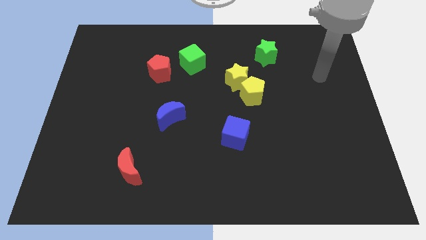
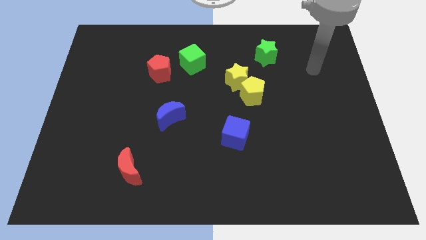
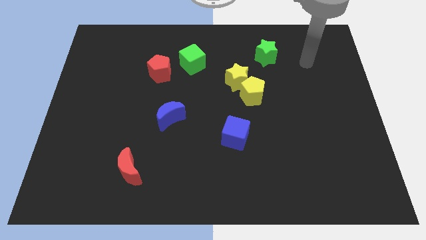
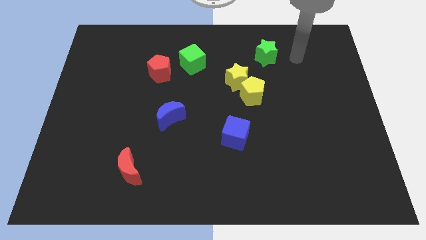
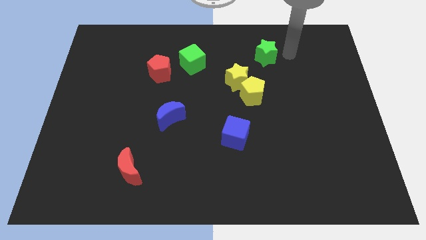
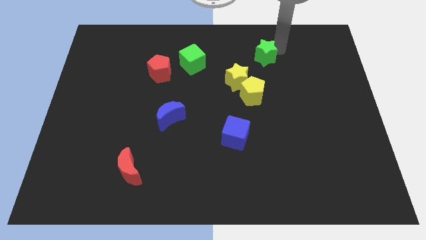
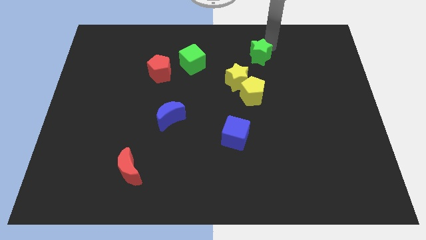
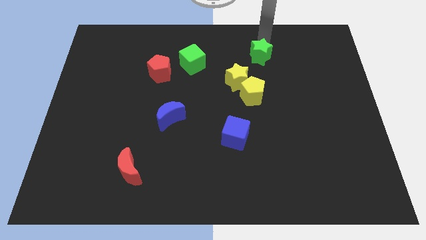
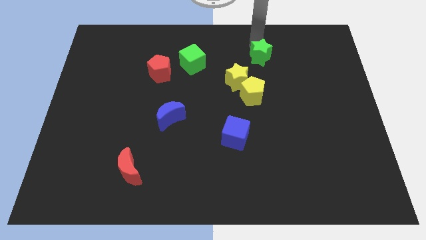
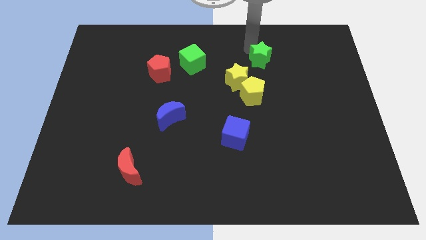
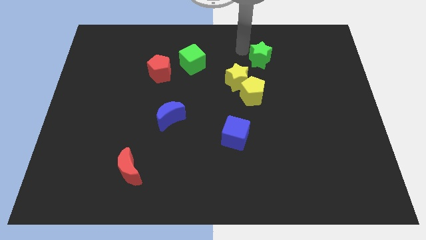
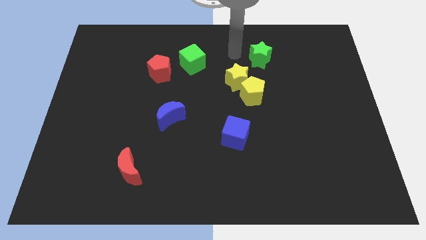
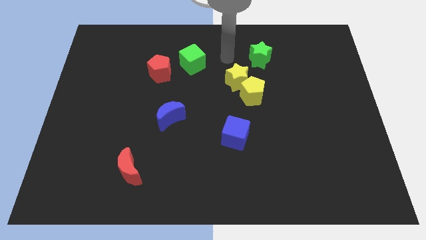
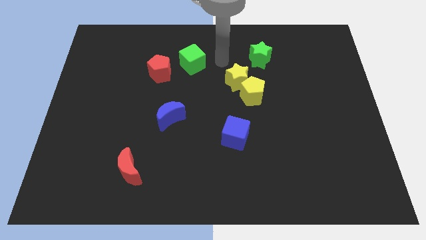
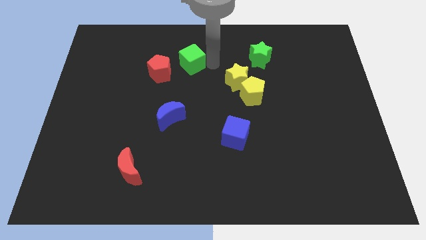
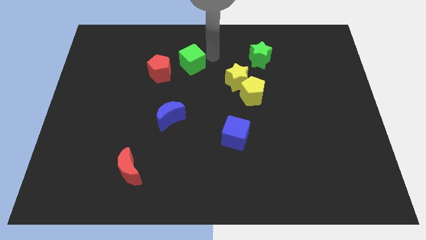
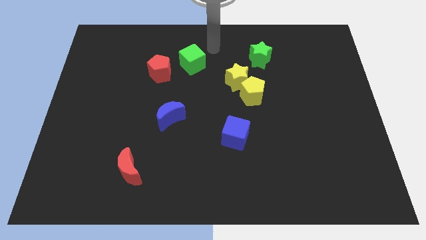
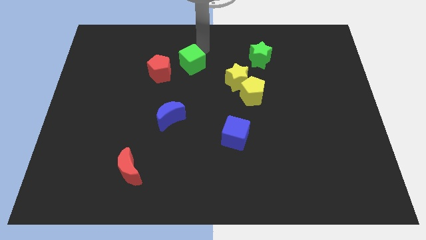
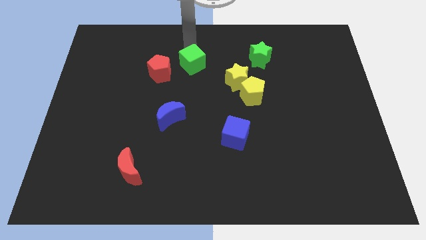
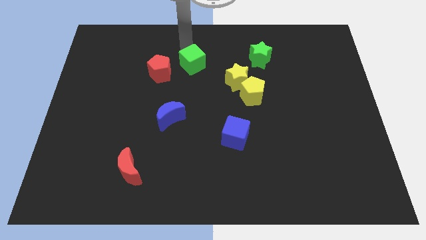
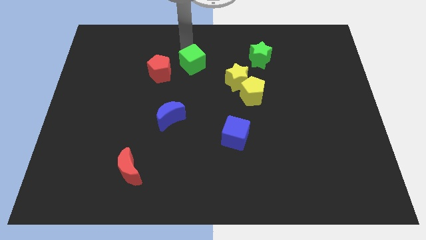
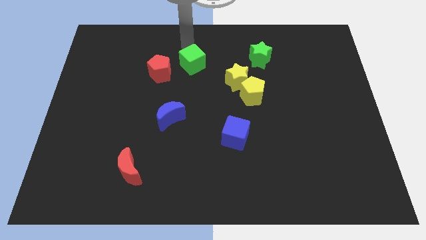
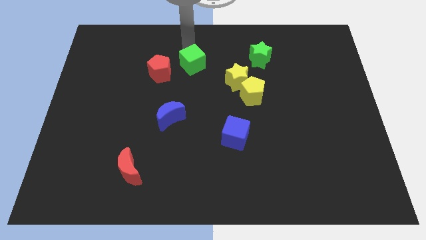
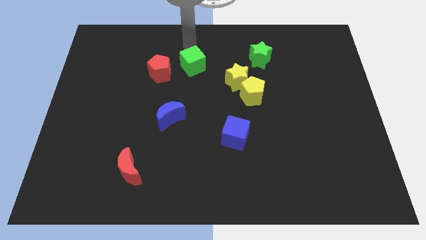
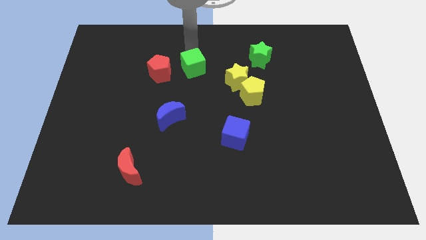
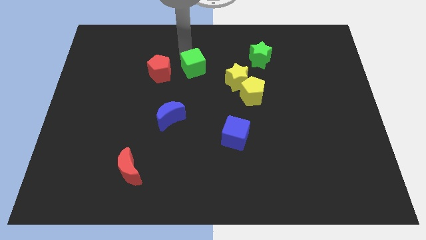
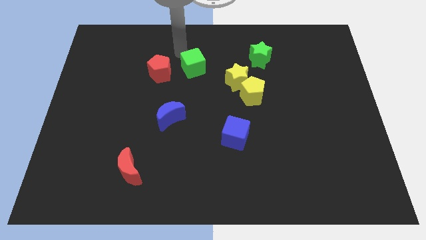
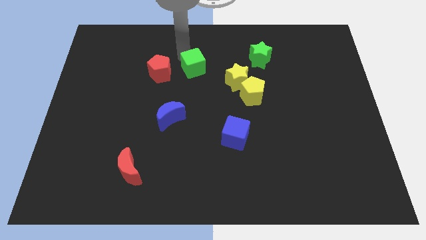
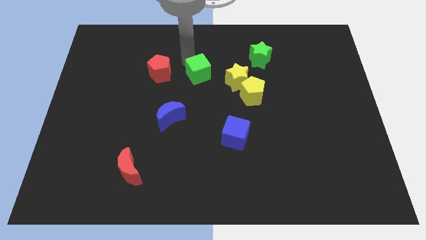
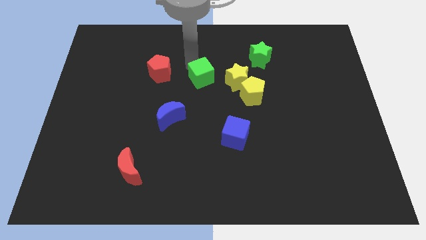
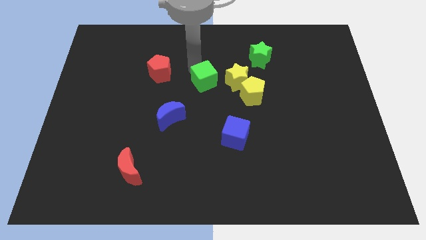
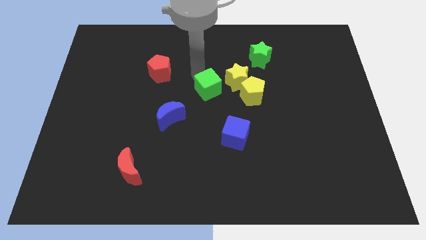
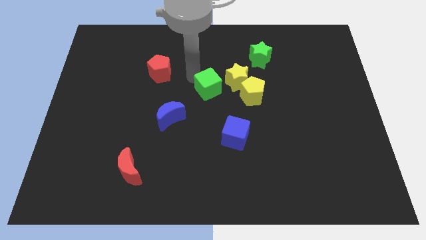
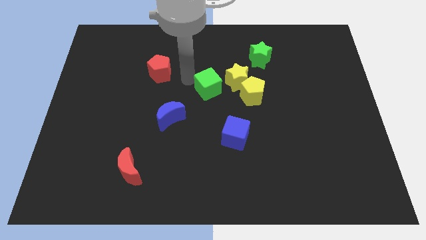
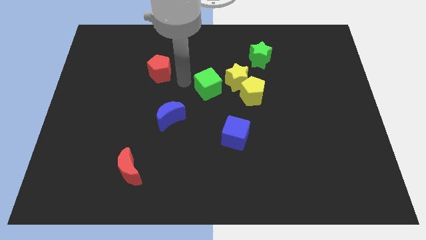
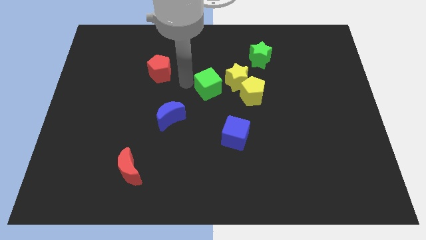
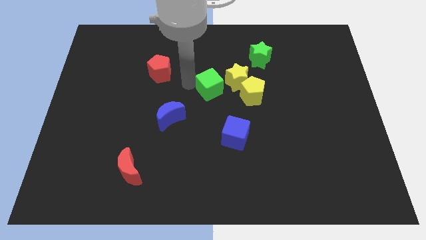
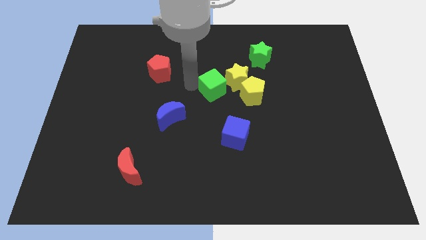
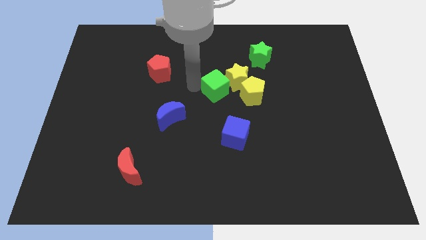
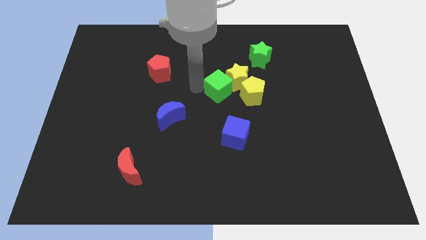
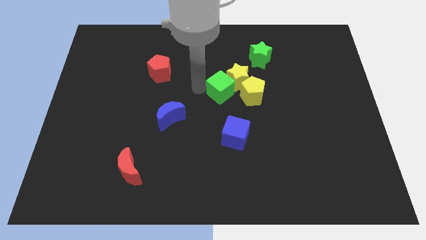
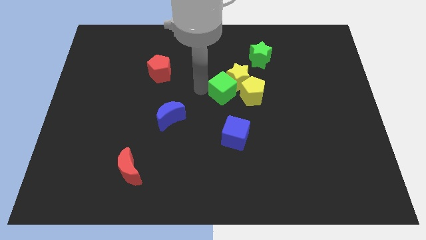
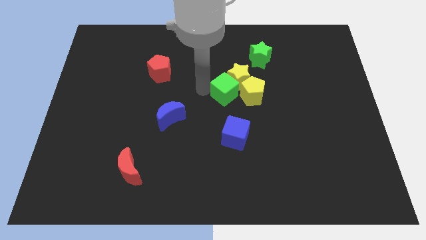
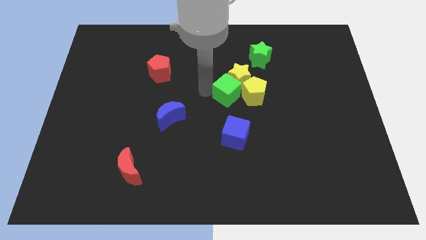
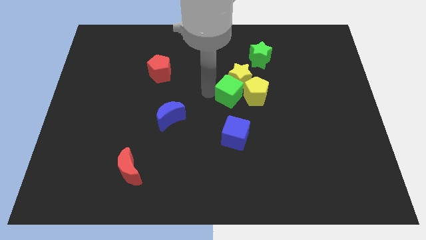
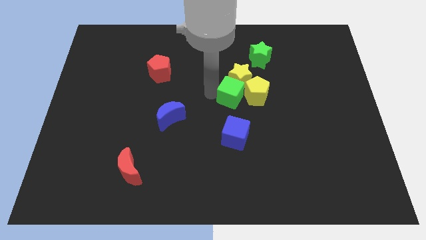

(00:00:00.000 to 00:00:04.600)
move the green cube close to the yellow pentagon

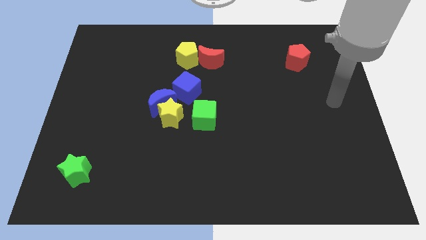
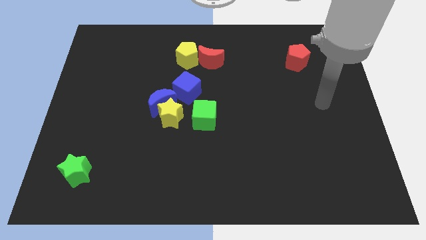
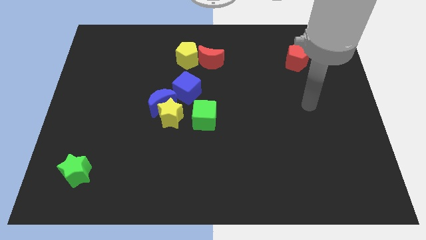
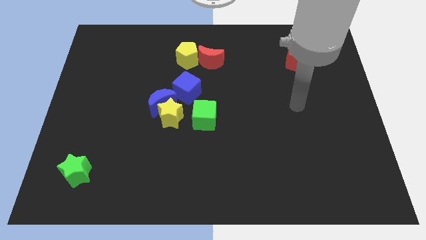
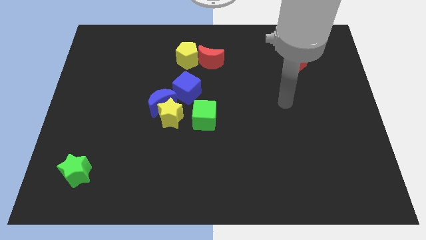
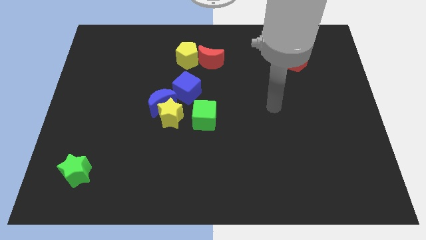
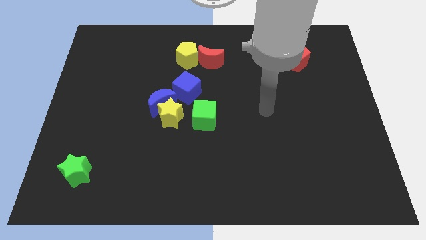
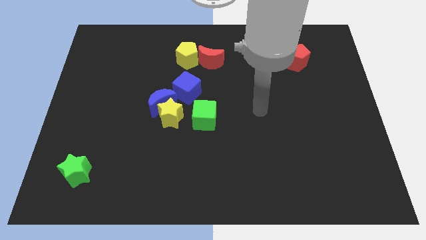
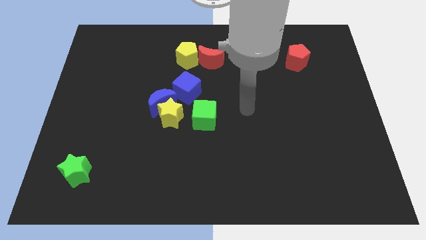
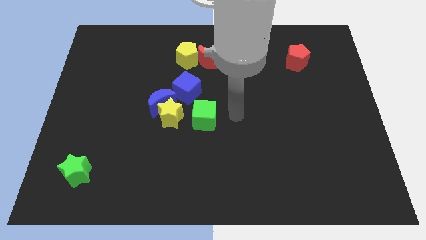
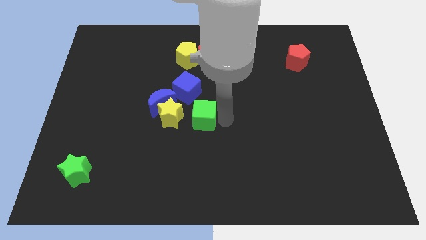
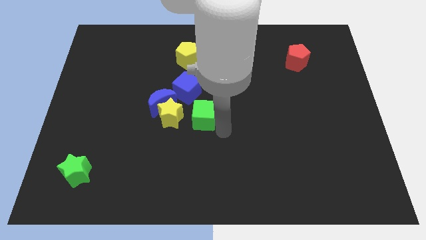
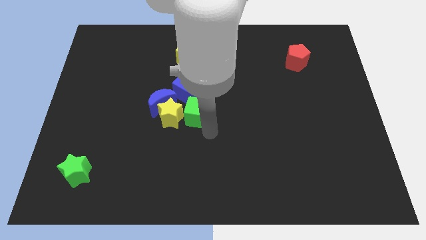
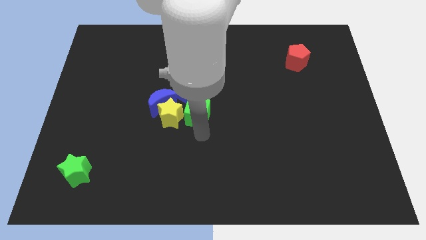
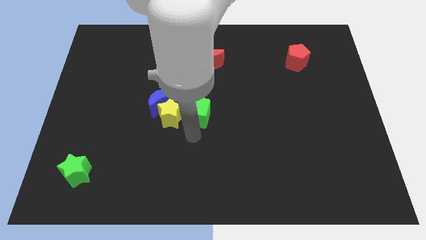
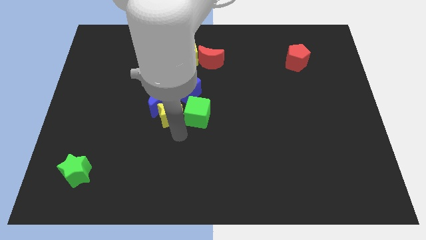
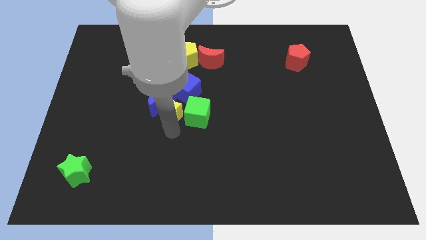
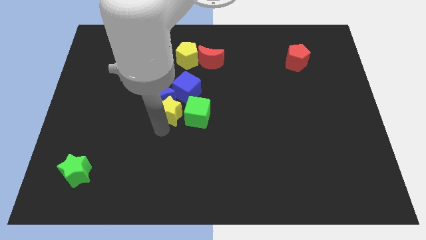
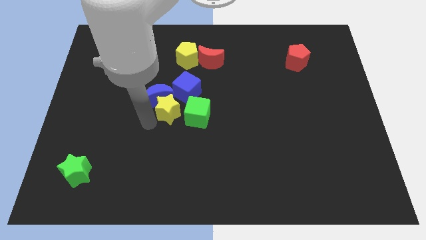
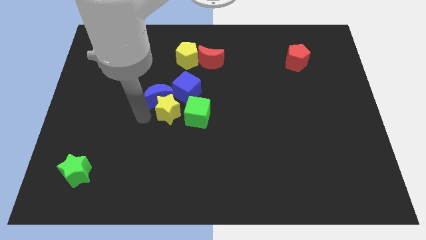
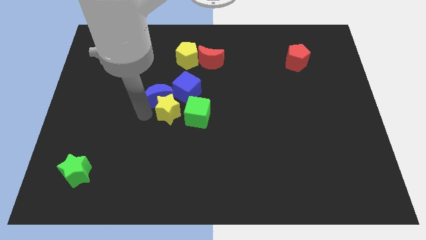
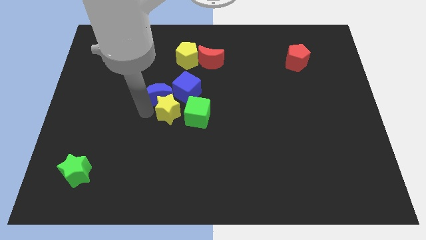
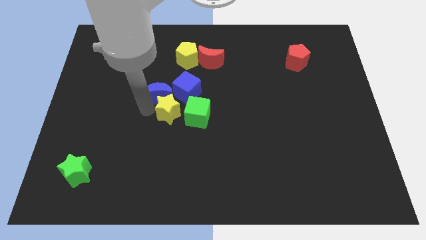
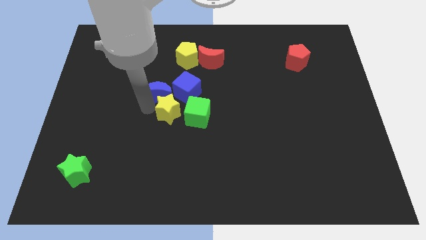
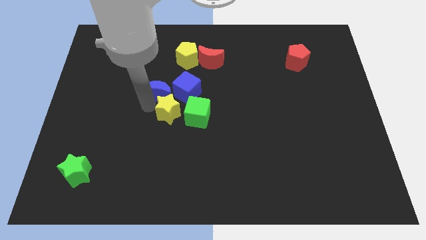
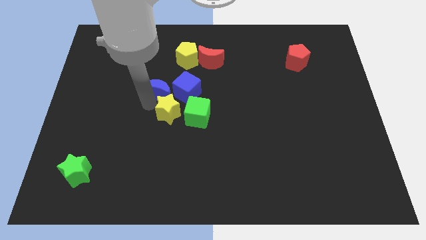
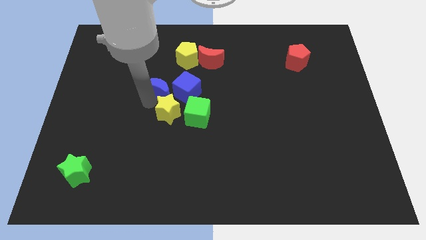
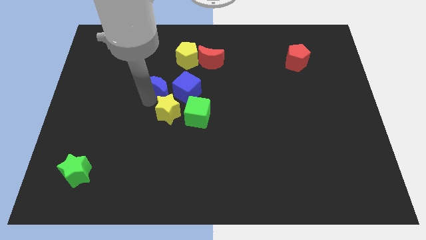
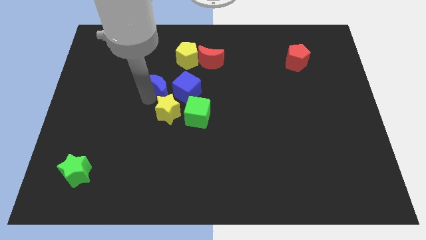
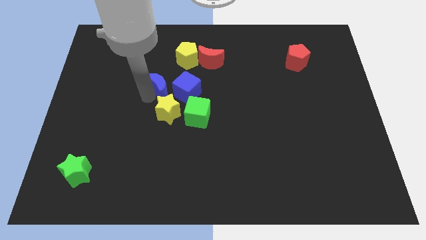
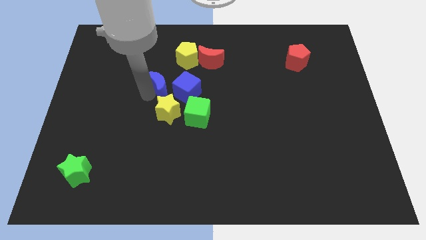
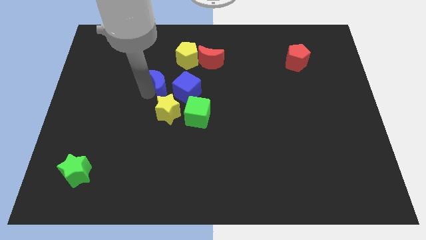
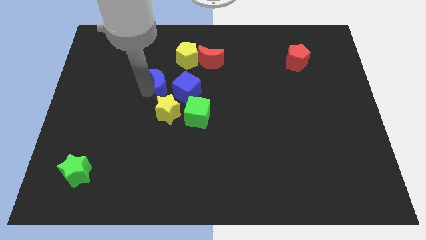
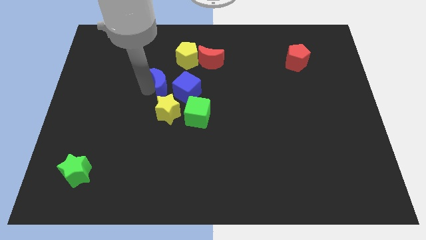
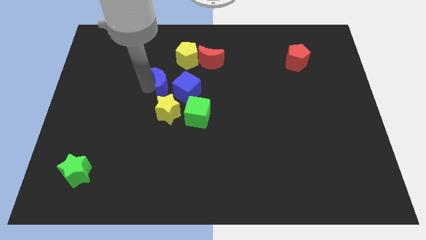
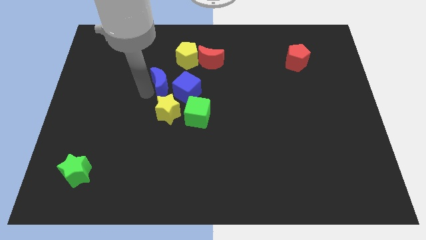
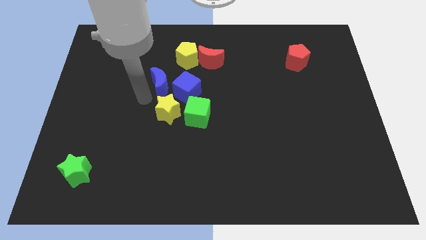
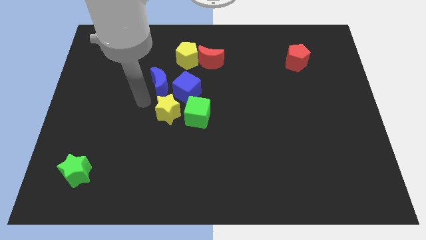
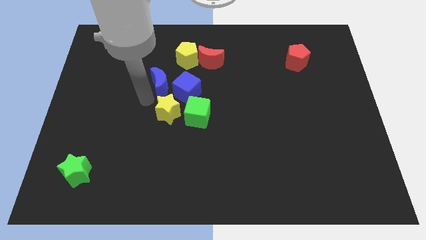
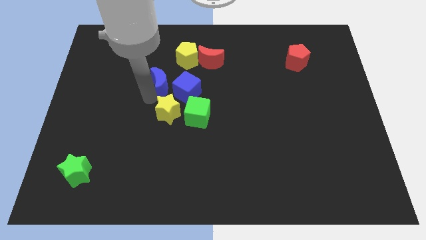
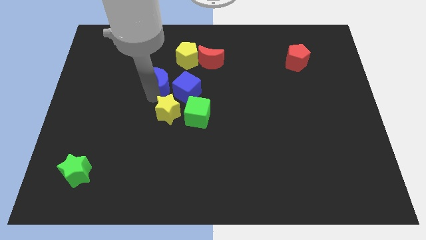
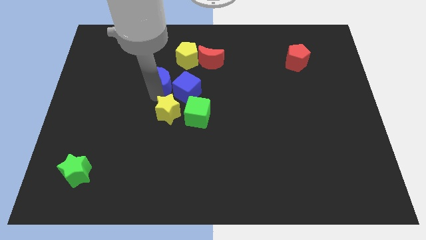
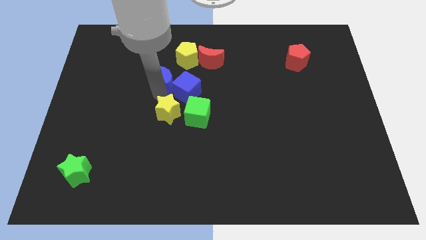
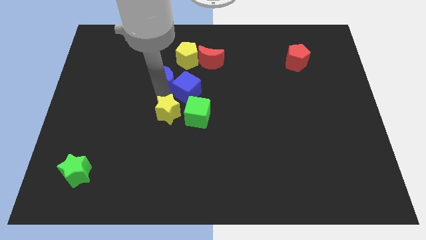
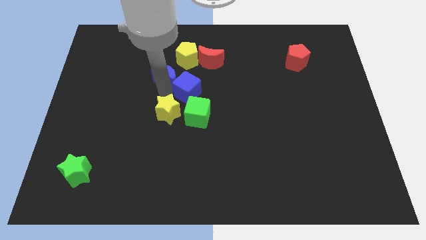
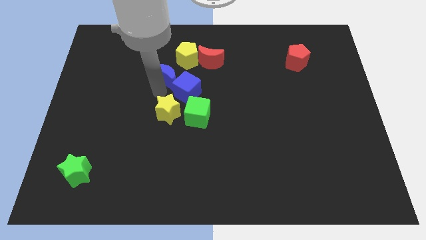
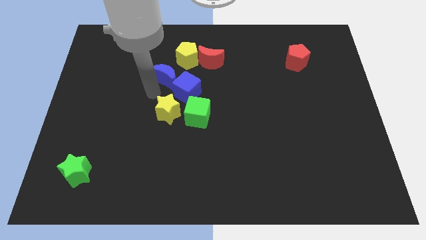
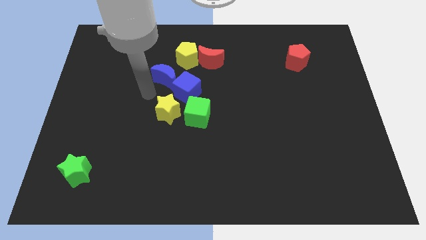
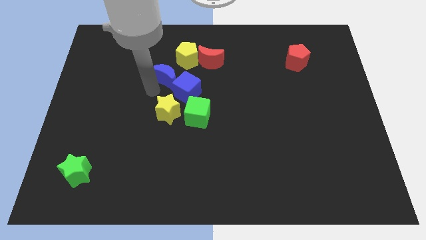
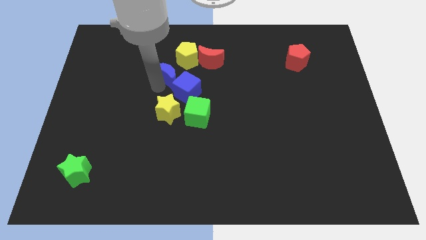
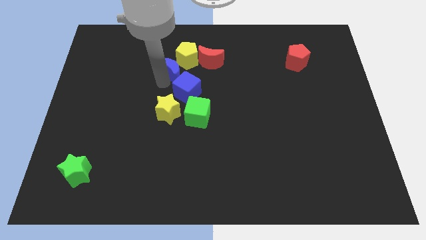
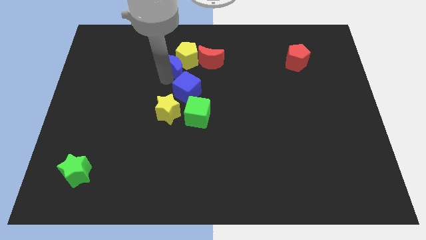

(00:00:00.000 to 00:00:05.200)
push the blue moon to the yellow pentagon
